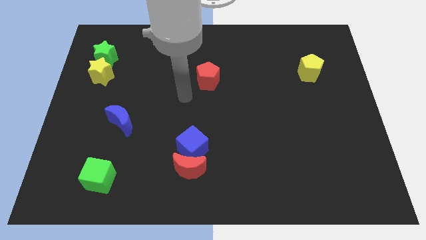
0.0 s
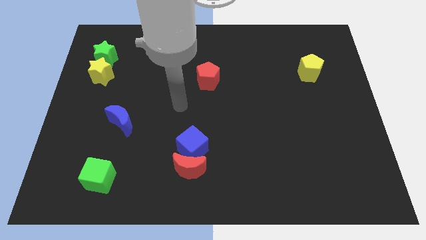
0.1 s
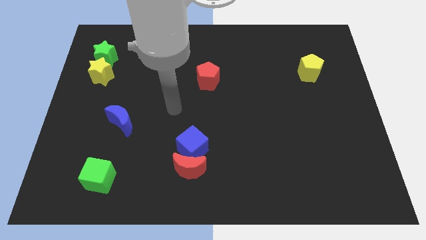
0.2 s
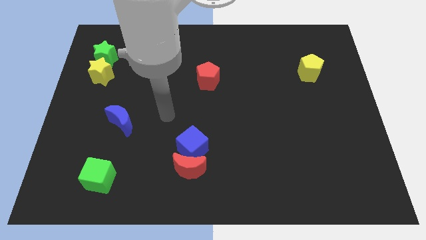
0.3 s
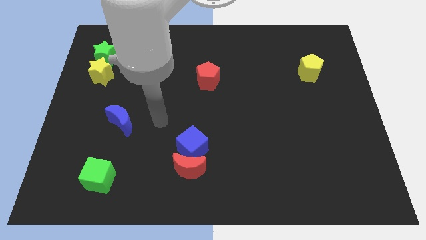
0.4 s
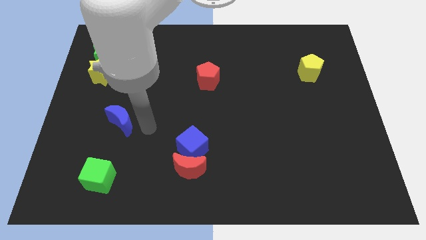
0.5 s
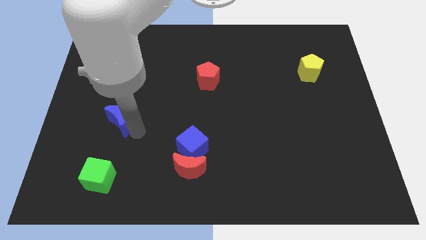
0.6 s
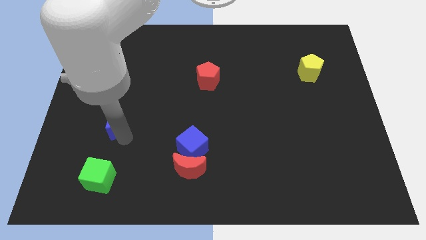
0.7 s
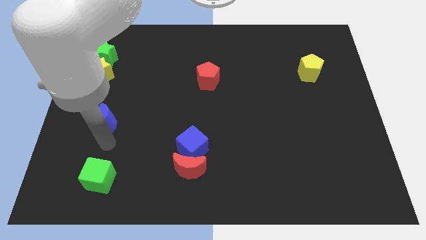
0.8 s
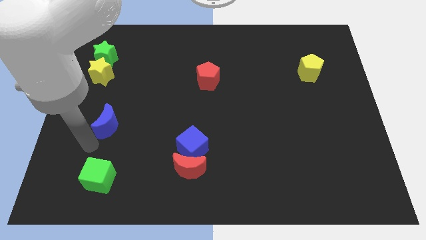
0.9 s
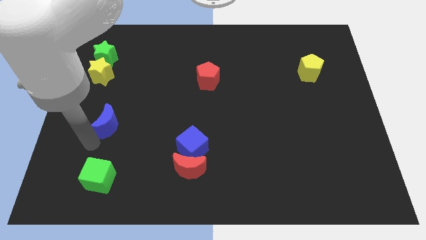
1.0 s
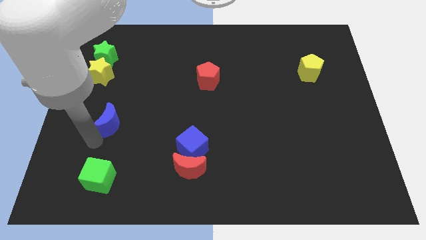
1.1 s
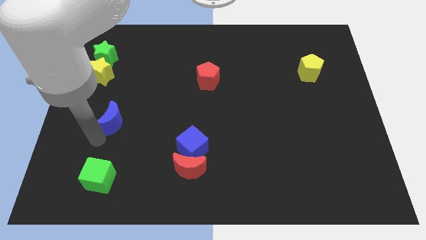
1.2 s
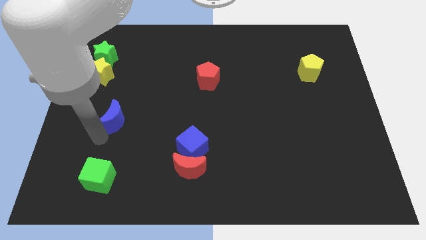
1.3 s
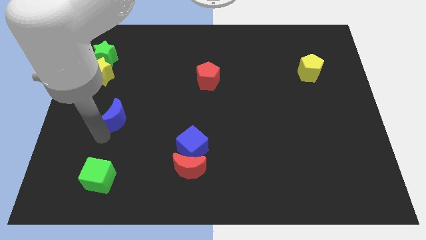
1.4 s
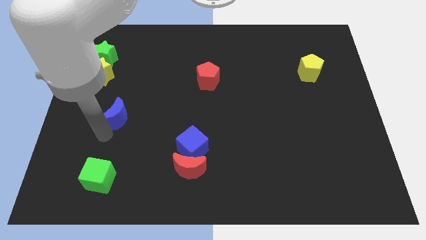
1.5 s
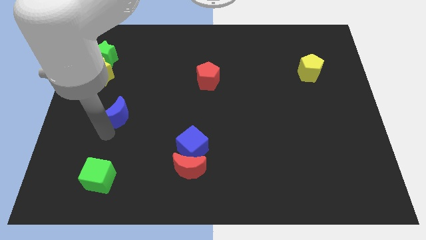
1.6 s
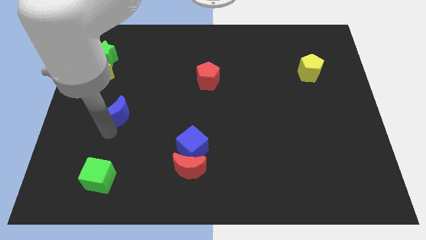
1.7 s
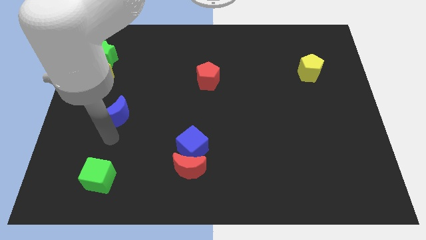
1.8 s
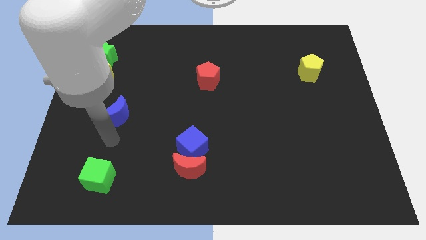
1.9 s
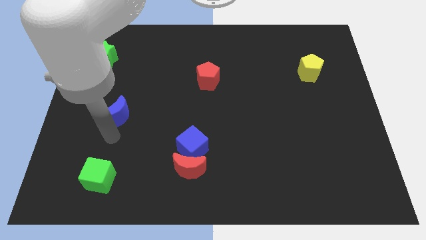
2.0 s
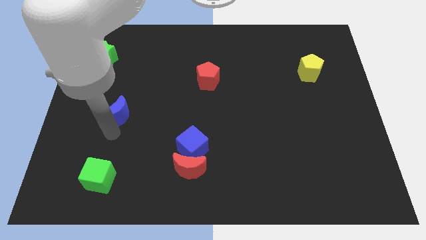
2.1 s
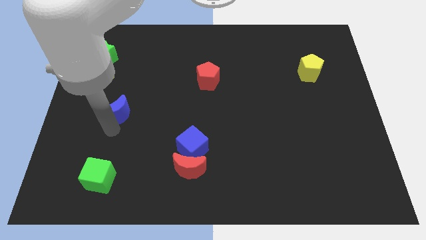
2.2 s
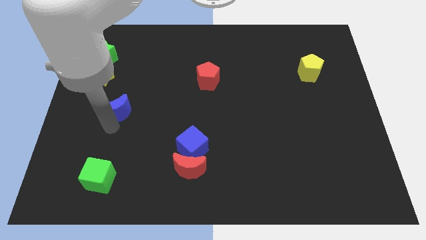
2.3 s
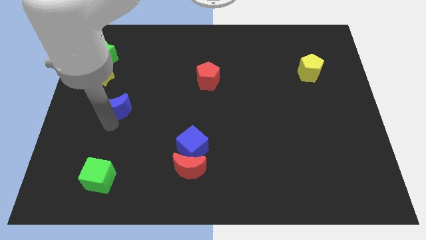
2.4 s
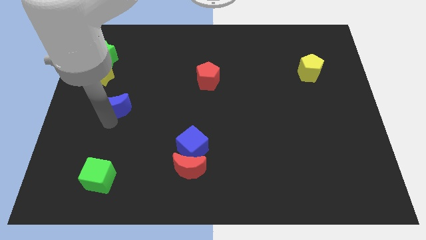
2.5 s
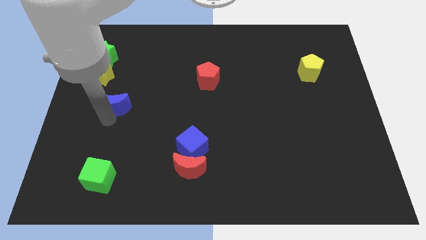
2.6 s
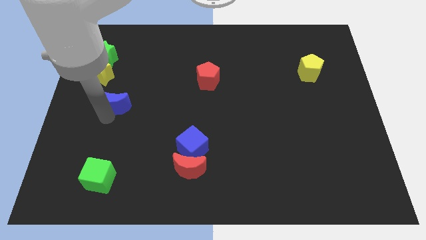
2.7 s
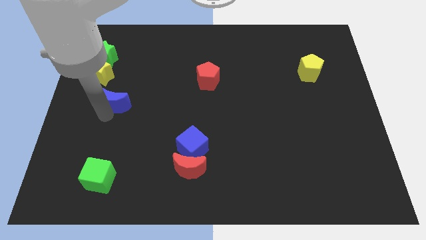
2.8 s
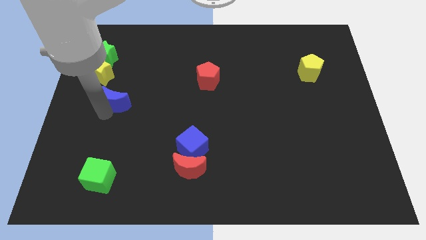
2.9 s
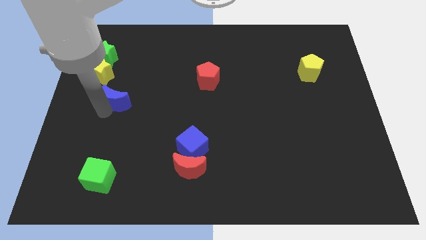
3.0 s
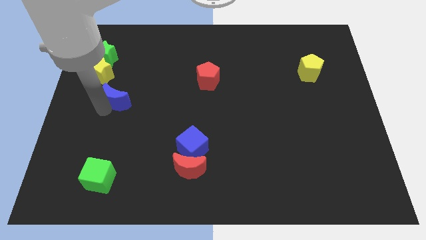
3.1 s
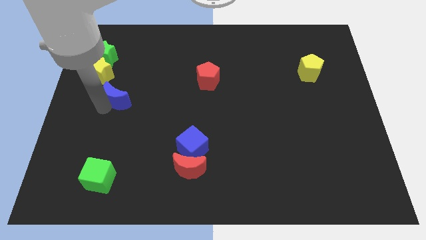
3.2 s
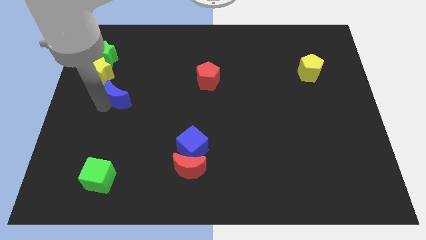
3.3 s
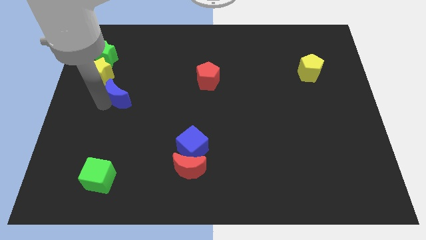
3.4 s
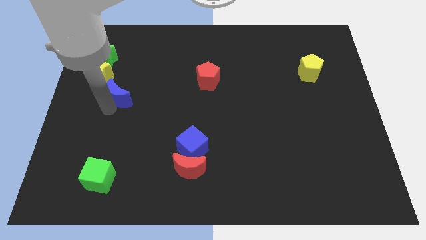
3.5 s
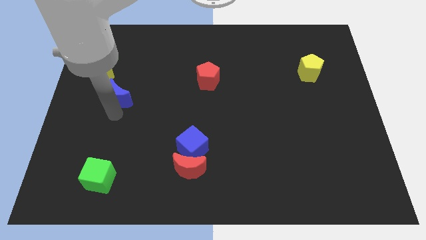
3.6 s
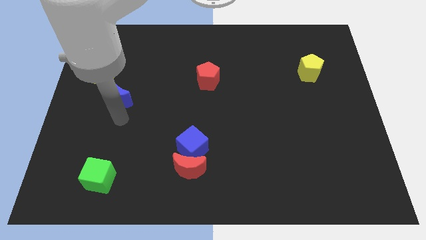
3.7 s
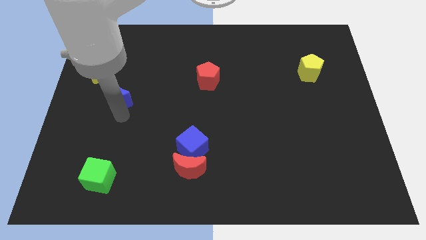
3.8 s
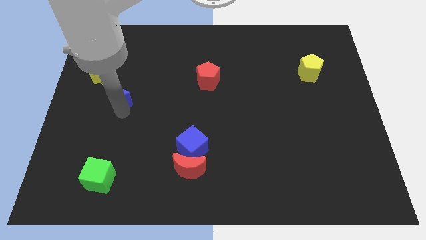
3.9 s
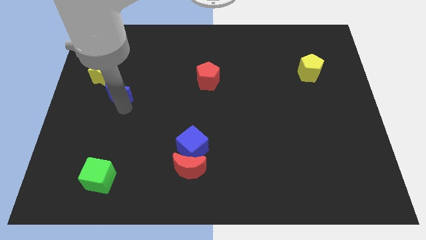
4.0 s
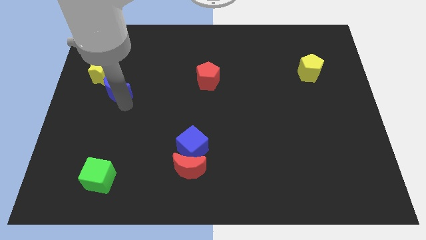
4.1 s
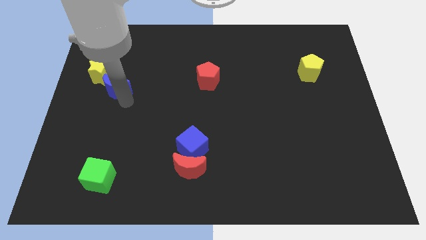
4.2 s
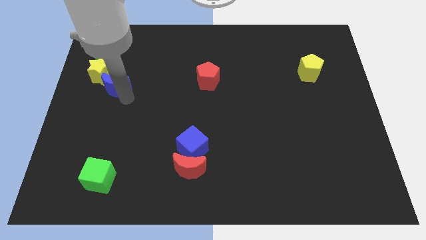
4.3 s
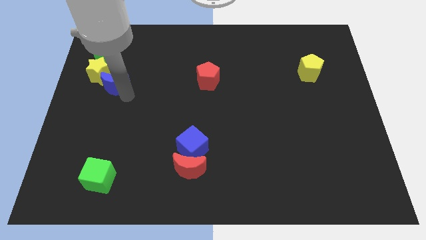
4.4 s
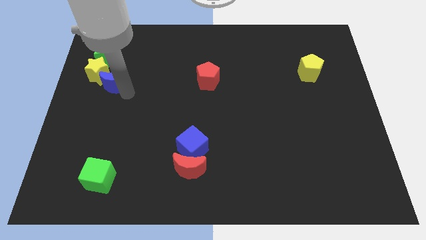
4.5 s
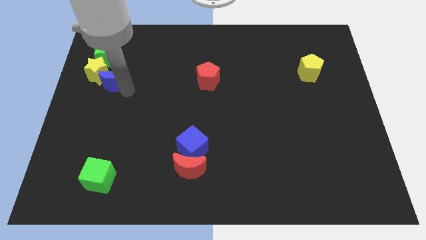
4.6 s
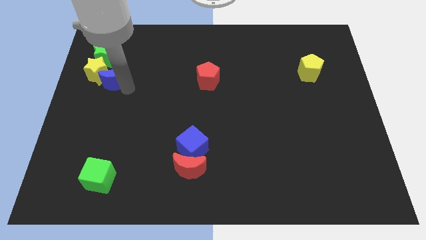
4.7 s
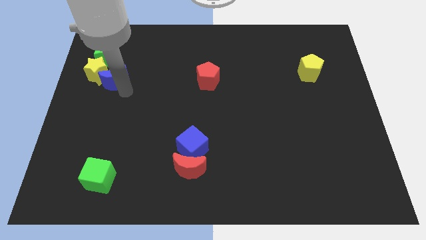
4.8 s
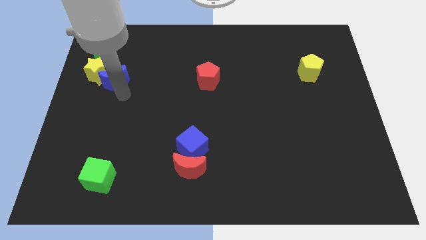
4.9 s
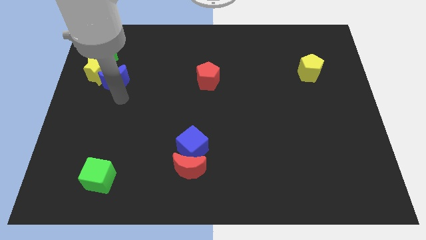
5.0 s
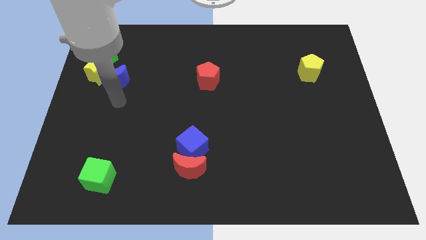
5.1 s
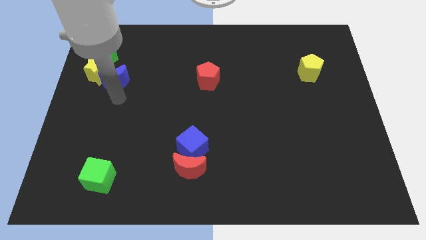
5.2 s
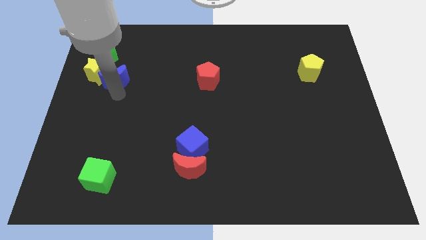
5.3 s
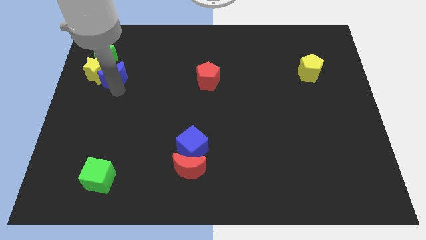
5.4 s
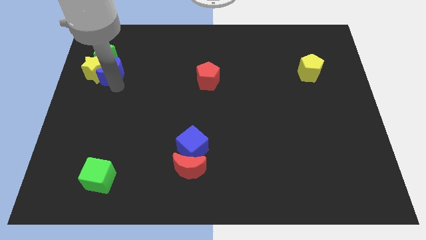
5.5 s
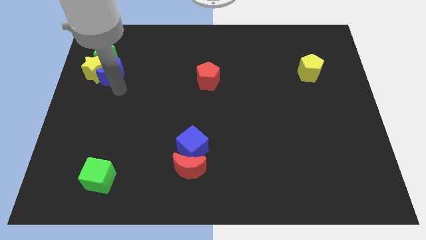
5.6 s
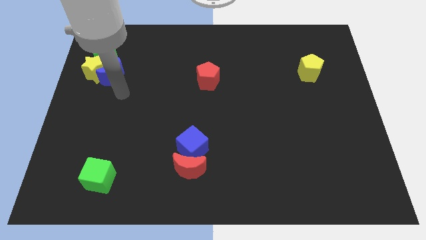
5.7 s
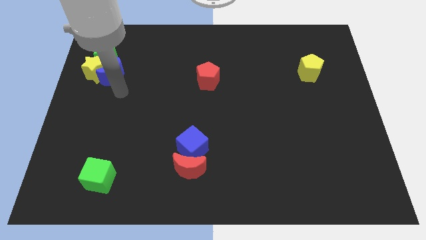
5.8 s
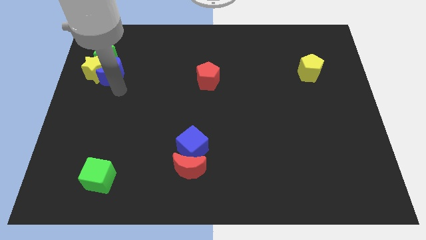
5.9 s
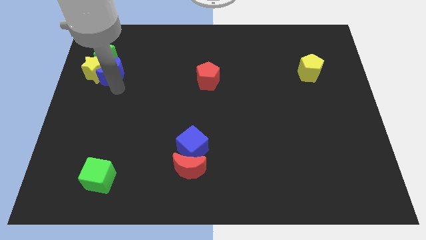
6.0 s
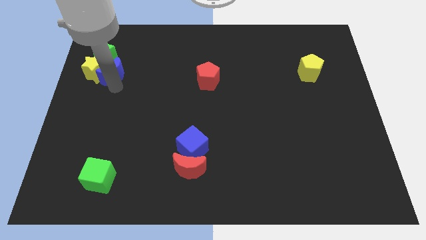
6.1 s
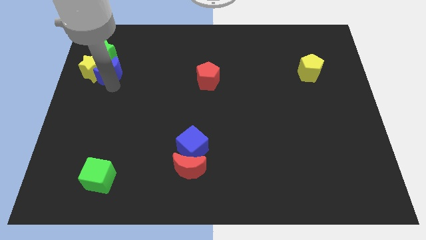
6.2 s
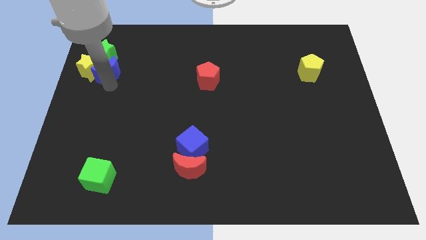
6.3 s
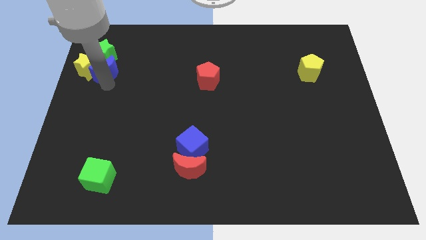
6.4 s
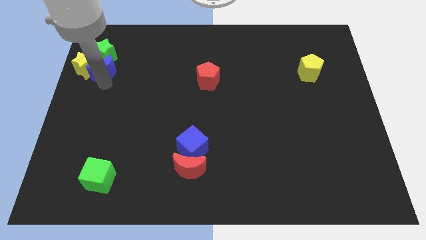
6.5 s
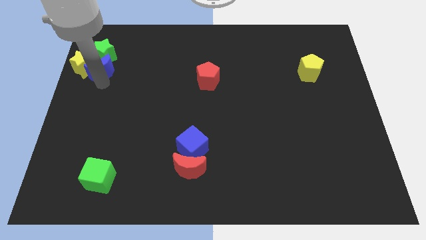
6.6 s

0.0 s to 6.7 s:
push the blue moon to the green star
